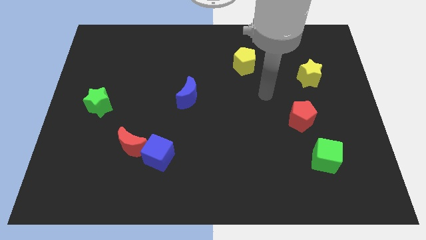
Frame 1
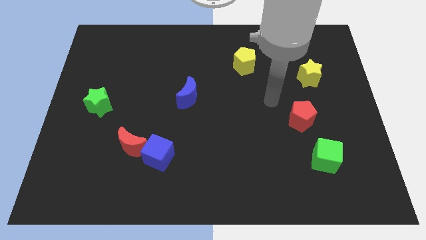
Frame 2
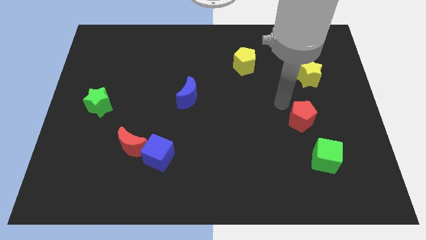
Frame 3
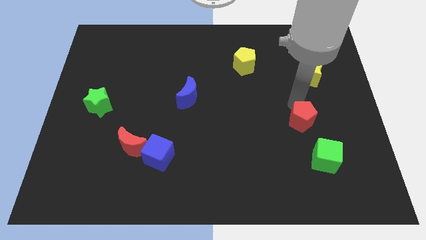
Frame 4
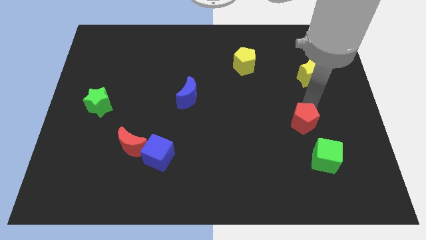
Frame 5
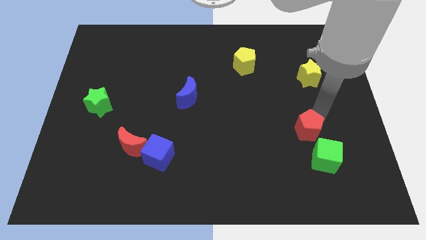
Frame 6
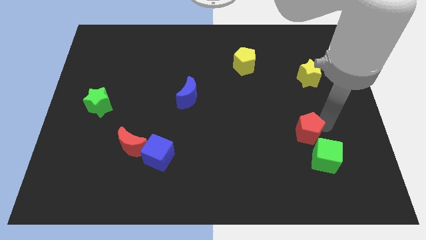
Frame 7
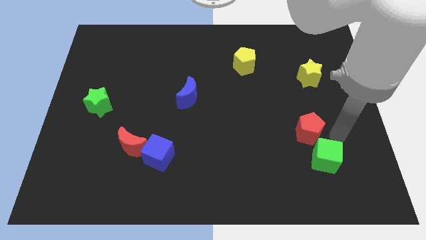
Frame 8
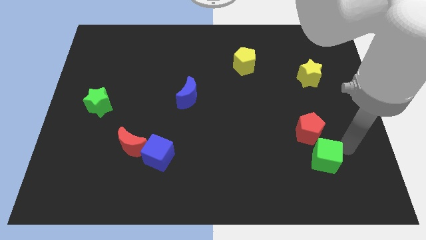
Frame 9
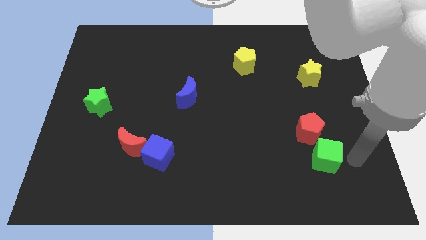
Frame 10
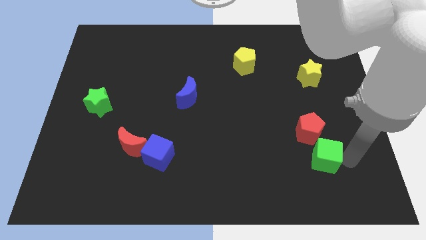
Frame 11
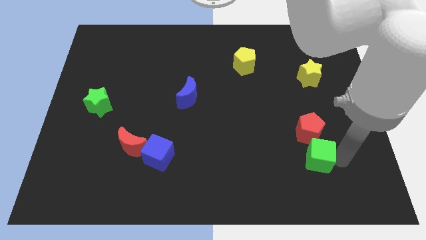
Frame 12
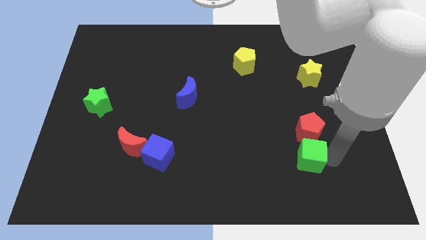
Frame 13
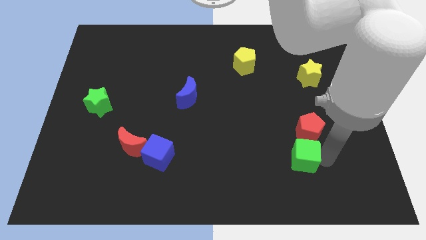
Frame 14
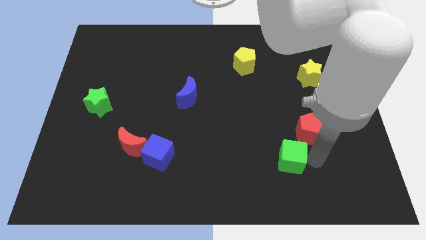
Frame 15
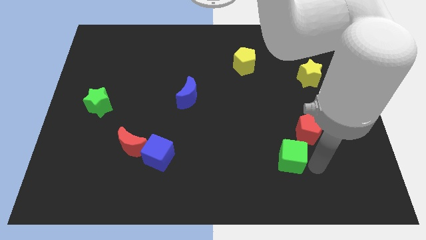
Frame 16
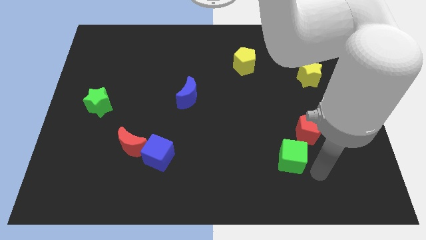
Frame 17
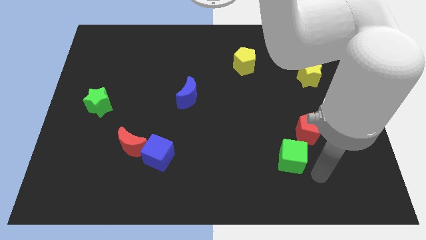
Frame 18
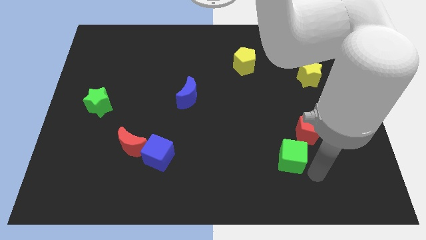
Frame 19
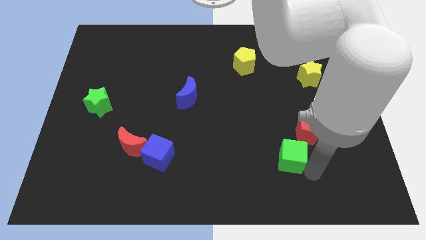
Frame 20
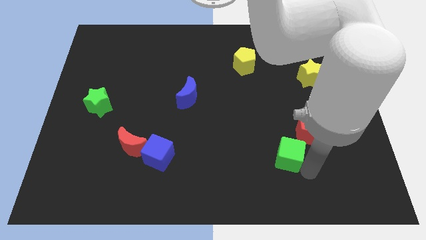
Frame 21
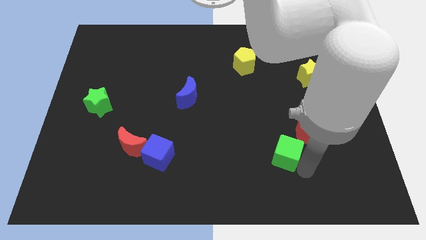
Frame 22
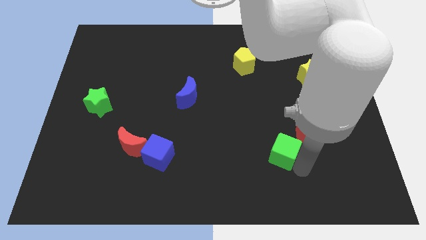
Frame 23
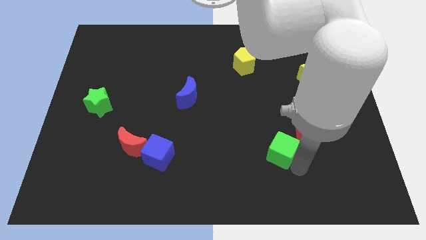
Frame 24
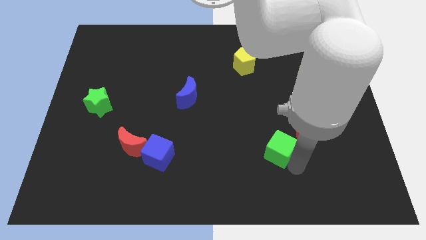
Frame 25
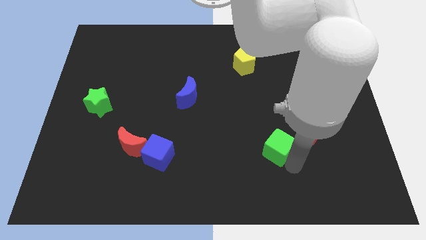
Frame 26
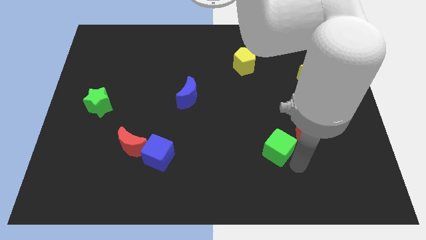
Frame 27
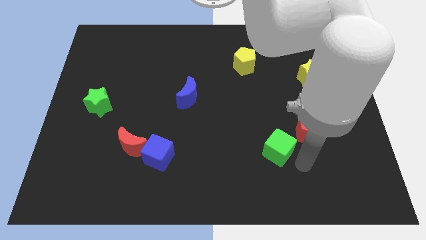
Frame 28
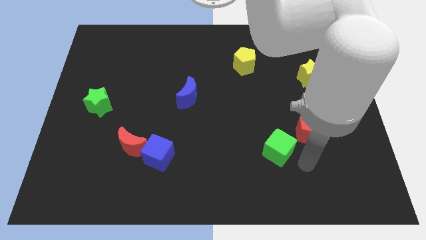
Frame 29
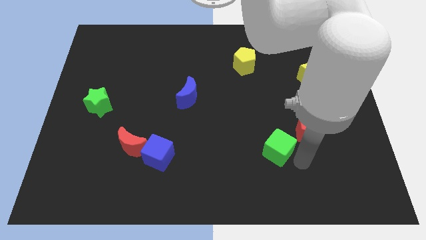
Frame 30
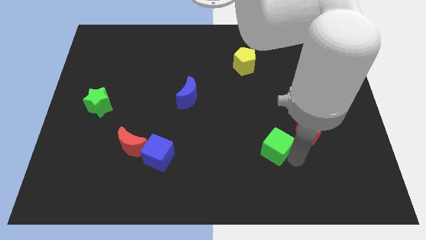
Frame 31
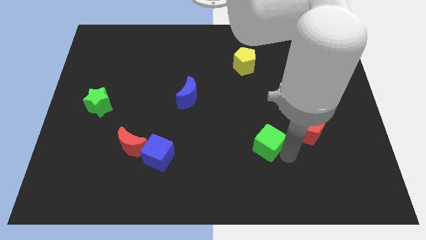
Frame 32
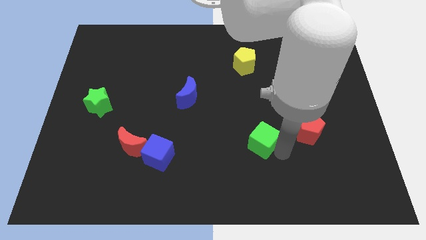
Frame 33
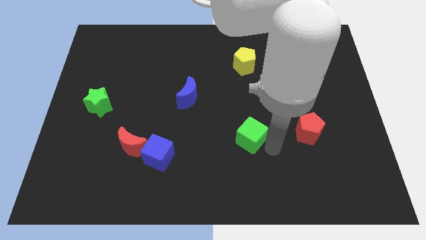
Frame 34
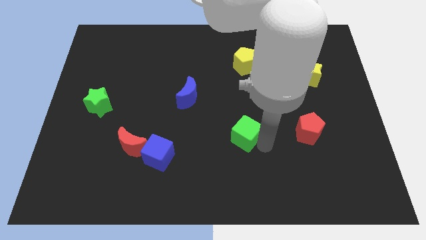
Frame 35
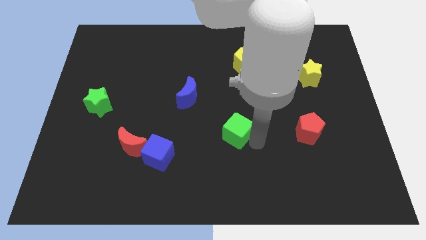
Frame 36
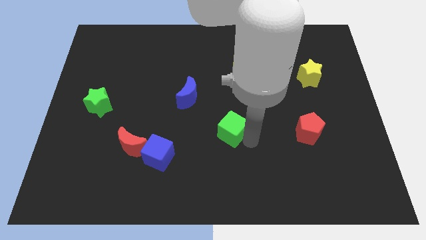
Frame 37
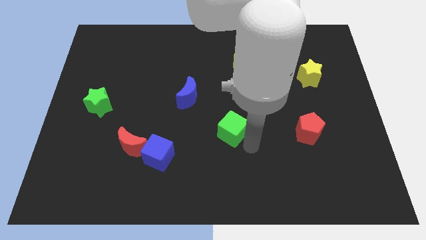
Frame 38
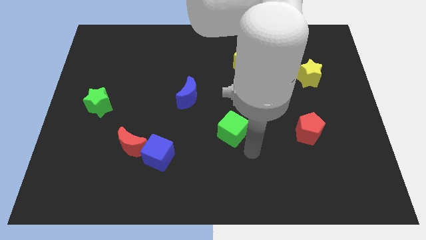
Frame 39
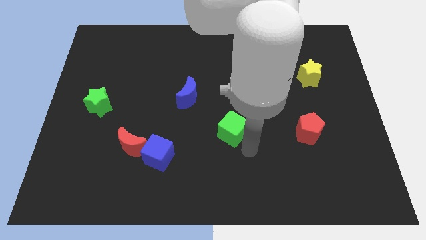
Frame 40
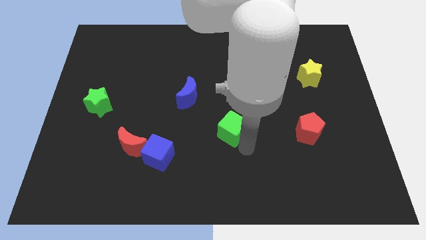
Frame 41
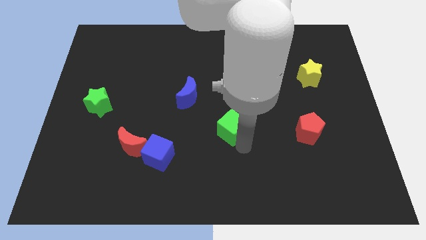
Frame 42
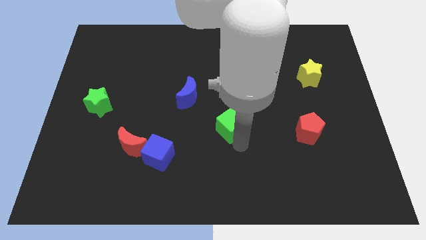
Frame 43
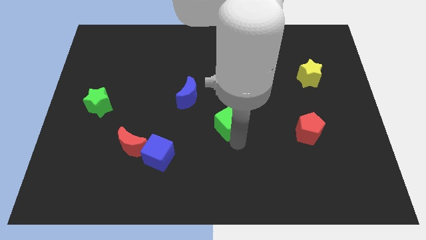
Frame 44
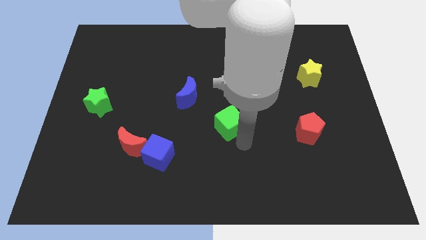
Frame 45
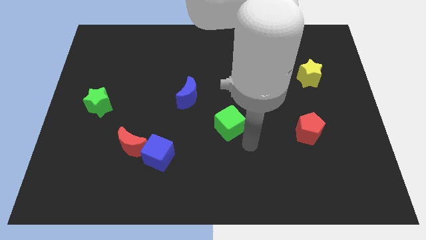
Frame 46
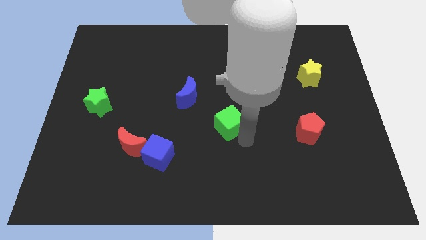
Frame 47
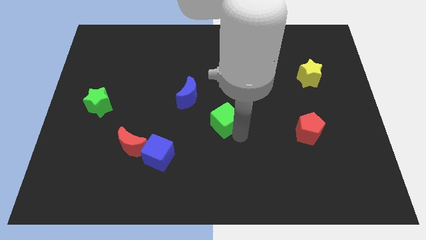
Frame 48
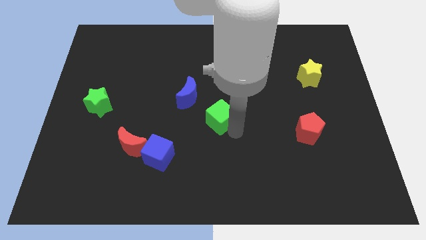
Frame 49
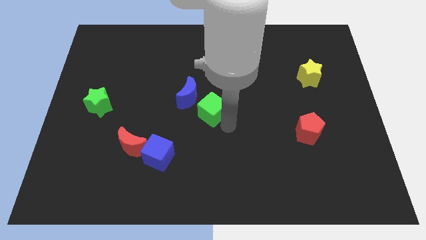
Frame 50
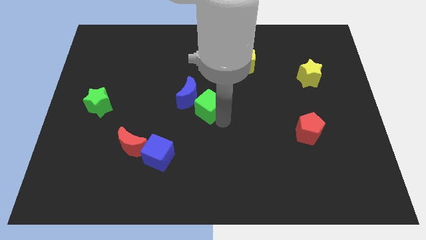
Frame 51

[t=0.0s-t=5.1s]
push the green cube to the blue moon

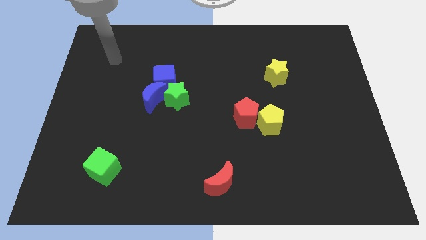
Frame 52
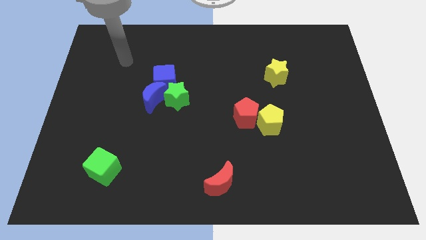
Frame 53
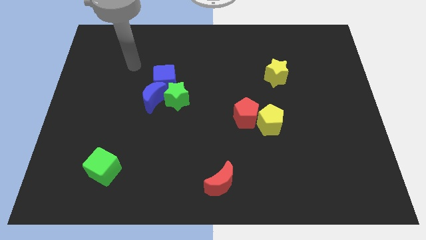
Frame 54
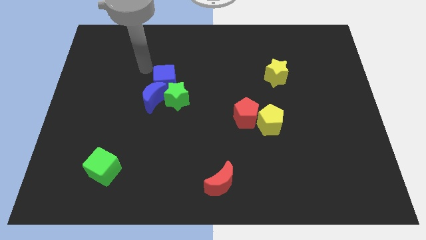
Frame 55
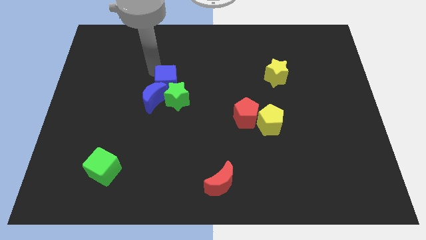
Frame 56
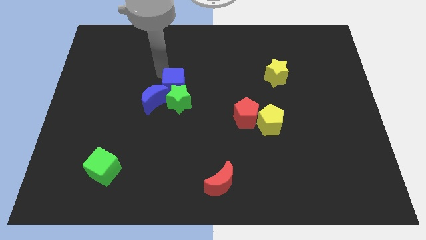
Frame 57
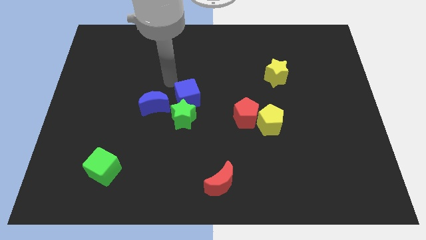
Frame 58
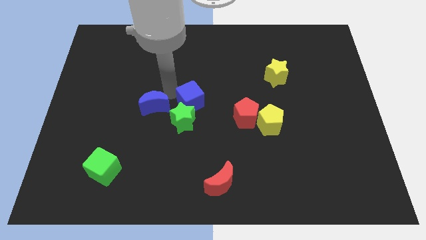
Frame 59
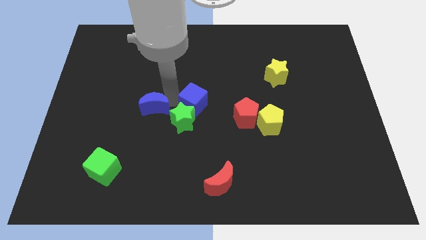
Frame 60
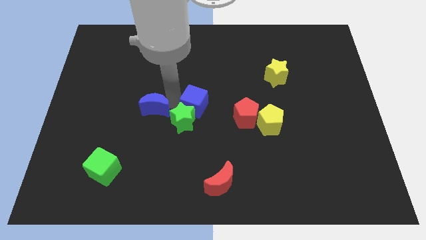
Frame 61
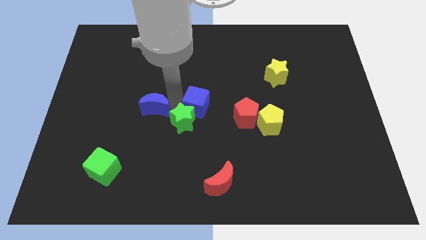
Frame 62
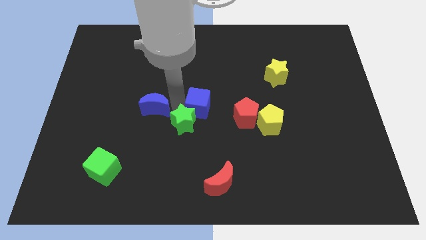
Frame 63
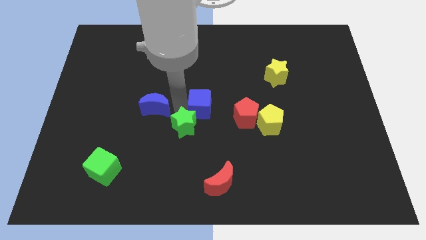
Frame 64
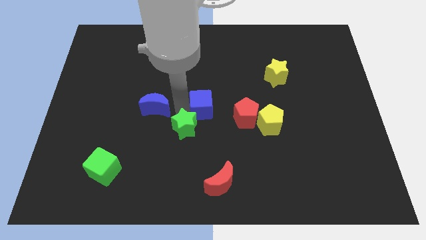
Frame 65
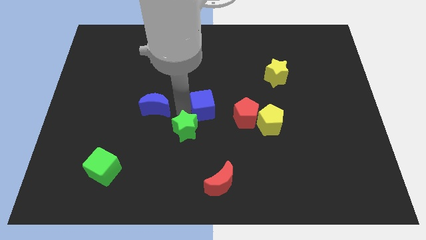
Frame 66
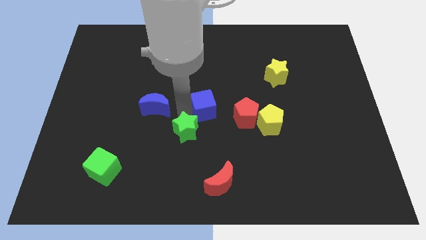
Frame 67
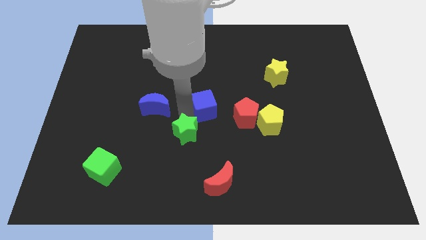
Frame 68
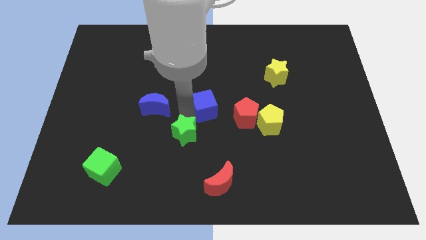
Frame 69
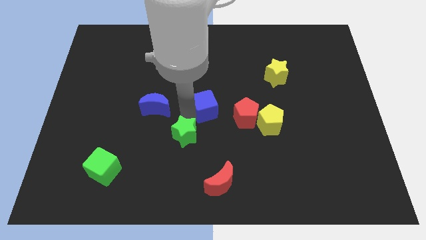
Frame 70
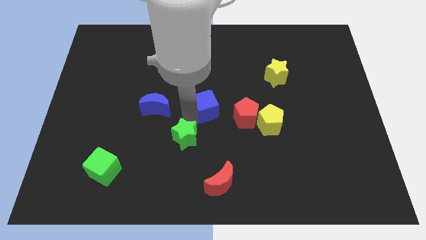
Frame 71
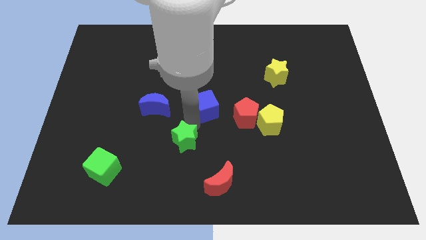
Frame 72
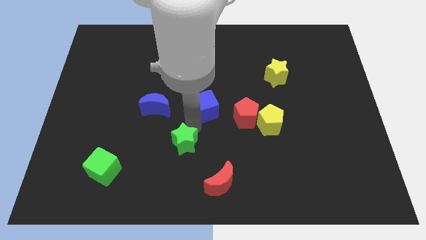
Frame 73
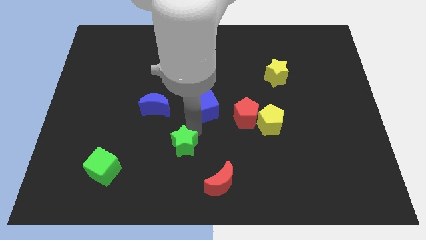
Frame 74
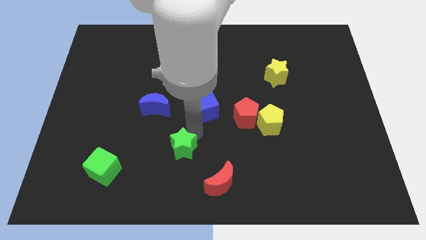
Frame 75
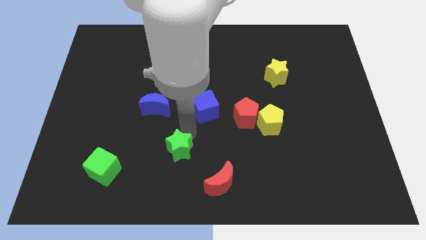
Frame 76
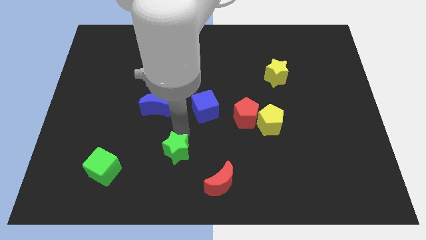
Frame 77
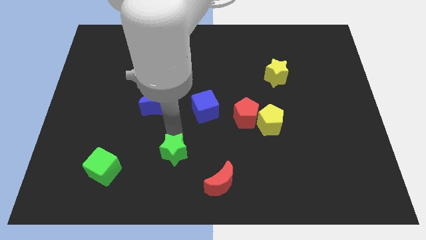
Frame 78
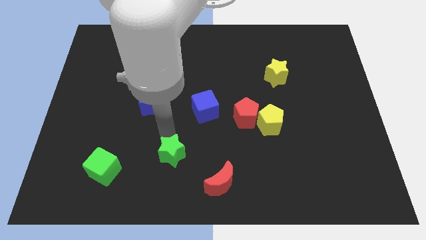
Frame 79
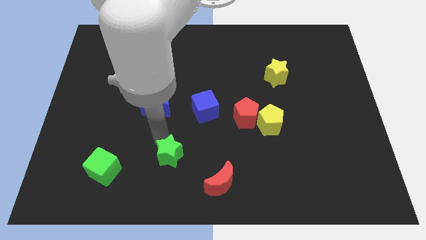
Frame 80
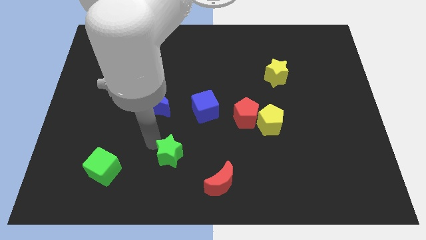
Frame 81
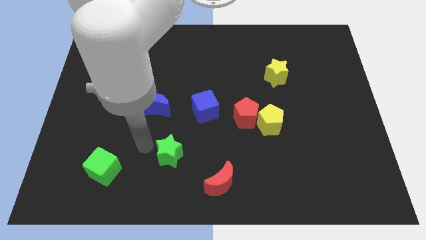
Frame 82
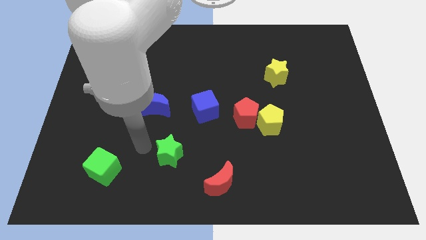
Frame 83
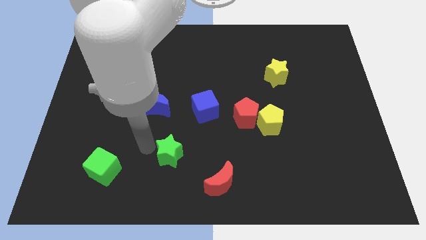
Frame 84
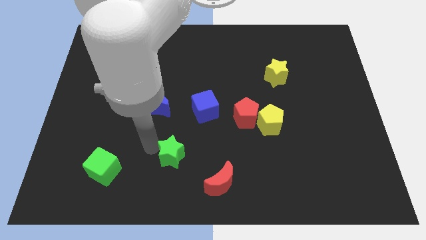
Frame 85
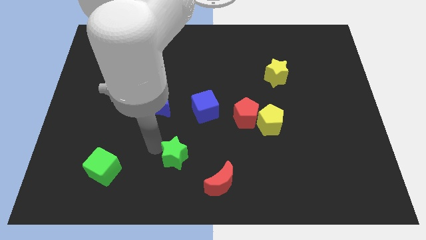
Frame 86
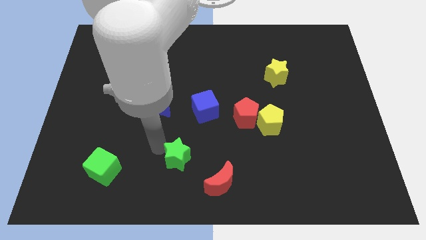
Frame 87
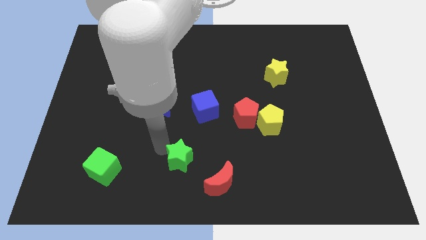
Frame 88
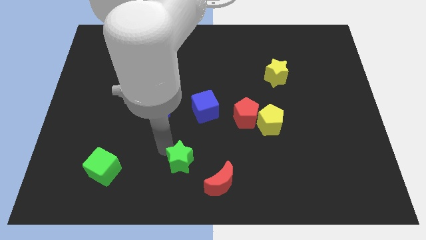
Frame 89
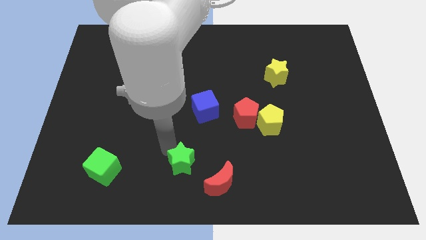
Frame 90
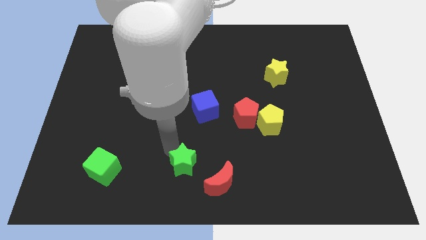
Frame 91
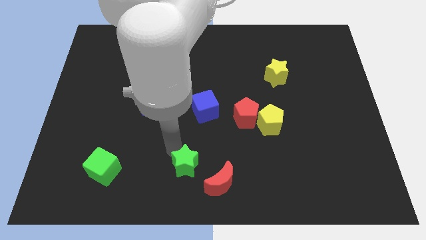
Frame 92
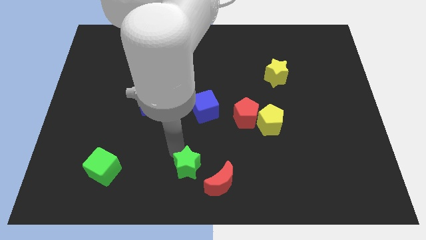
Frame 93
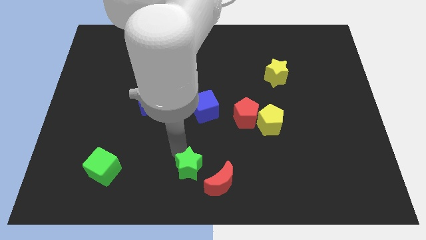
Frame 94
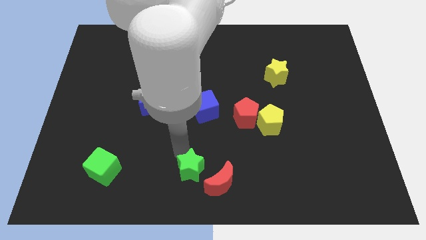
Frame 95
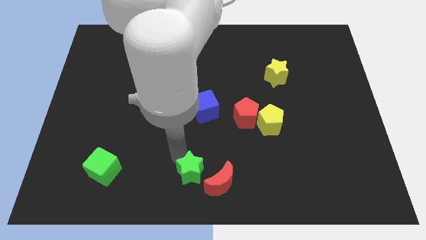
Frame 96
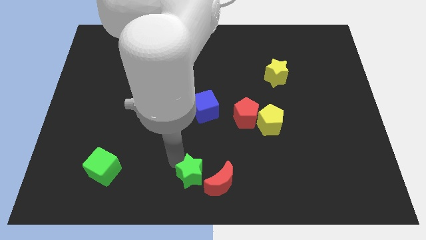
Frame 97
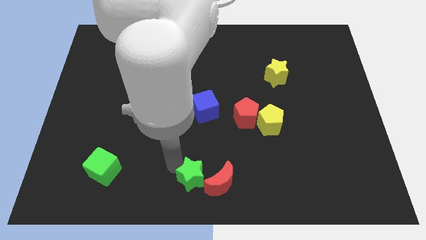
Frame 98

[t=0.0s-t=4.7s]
push the green star to the red moon
